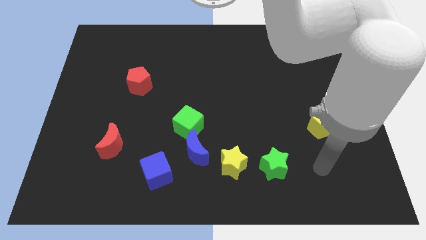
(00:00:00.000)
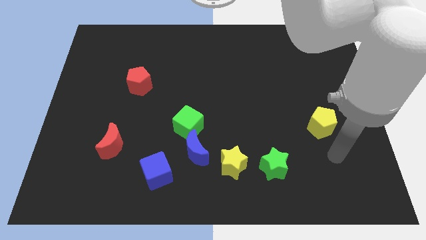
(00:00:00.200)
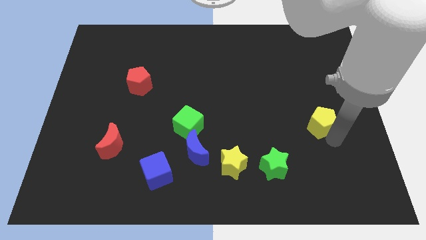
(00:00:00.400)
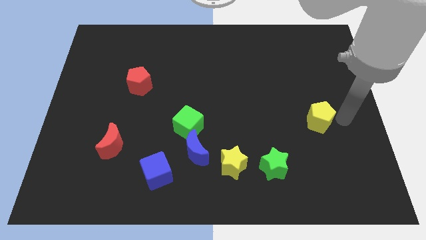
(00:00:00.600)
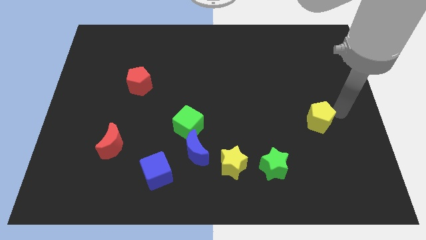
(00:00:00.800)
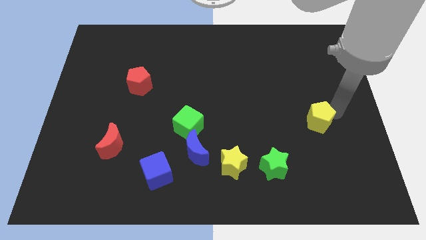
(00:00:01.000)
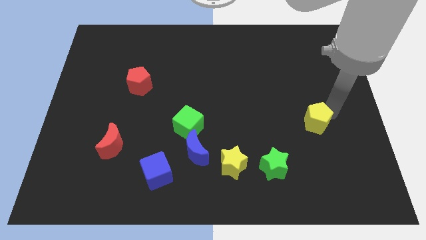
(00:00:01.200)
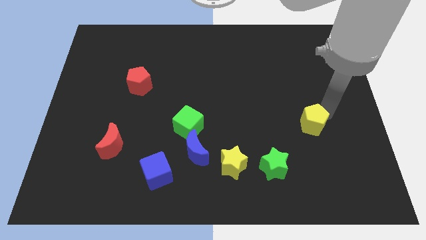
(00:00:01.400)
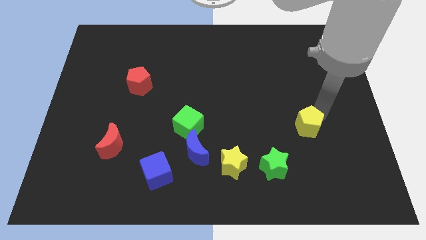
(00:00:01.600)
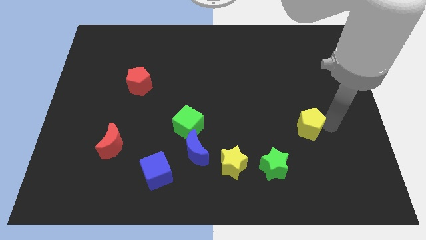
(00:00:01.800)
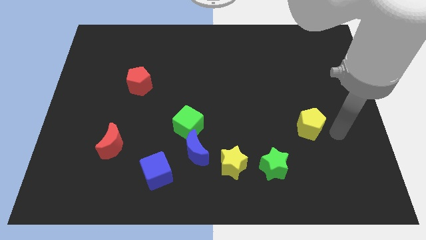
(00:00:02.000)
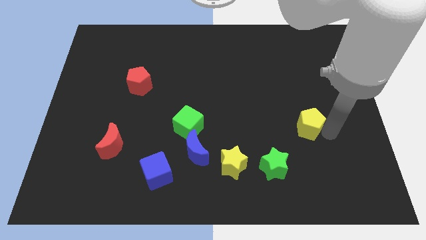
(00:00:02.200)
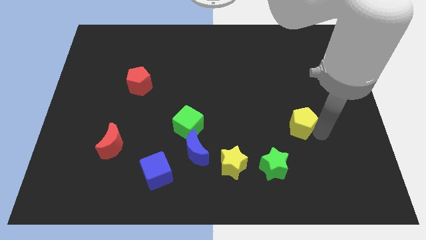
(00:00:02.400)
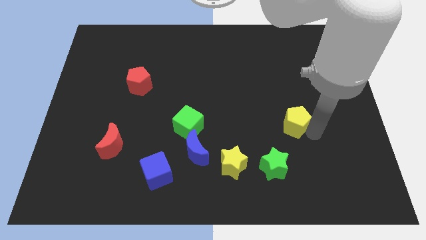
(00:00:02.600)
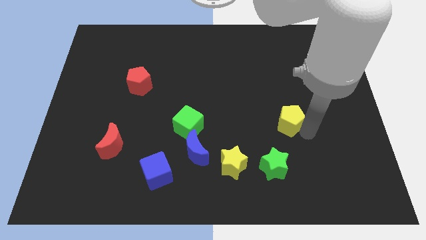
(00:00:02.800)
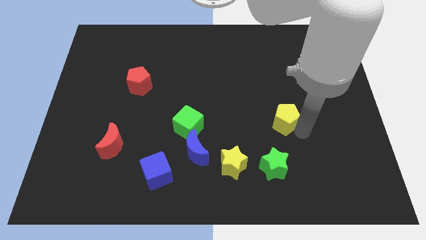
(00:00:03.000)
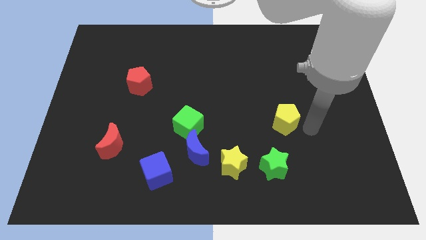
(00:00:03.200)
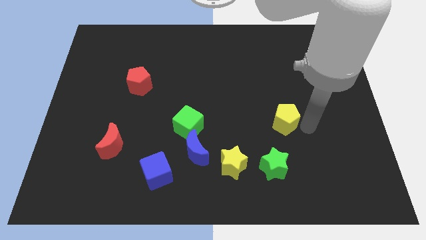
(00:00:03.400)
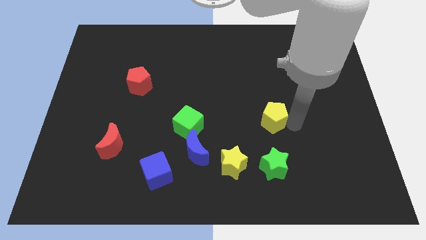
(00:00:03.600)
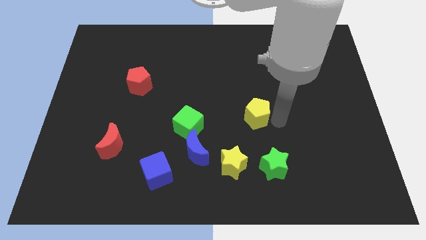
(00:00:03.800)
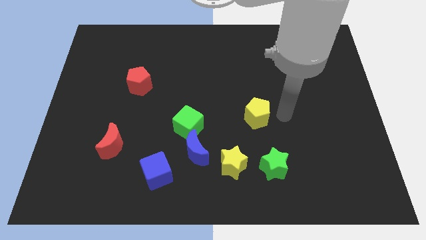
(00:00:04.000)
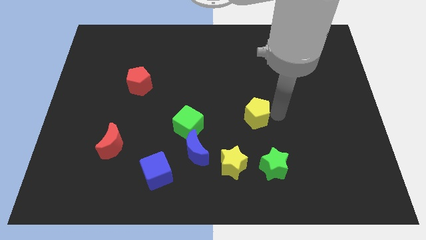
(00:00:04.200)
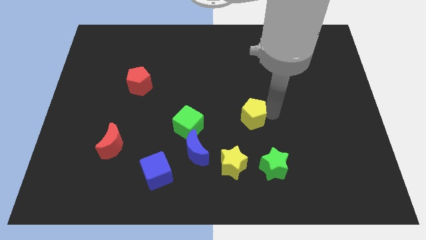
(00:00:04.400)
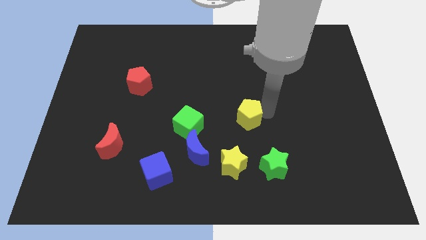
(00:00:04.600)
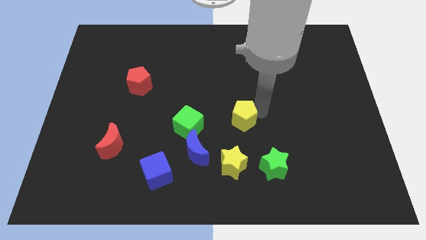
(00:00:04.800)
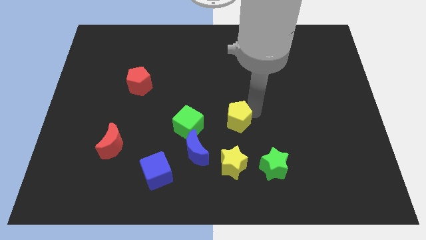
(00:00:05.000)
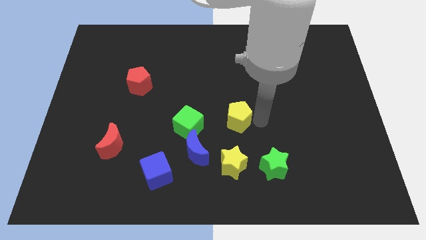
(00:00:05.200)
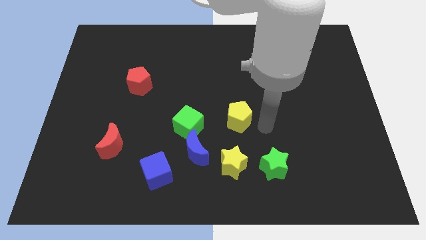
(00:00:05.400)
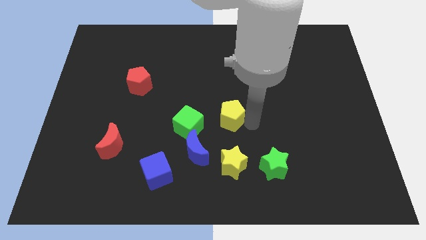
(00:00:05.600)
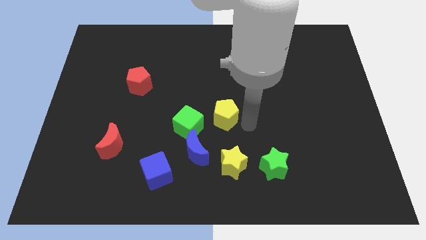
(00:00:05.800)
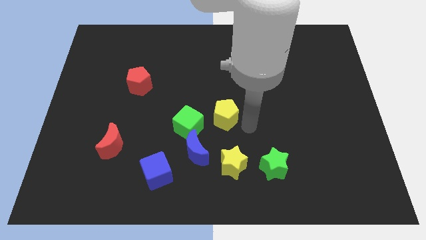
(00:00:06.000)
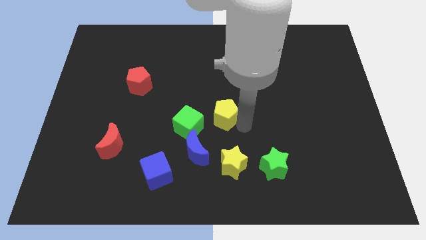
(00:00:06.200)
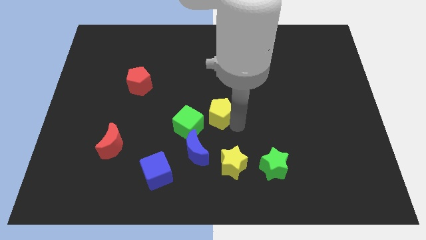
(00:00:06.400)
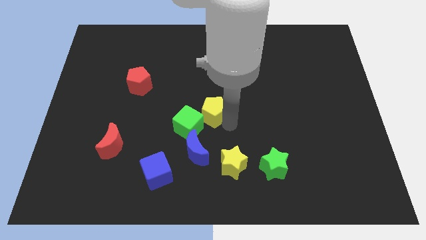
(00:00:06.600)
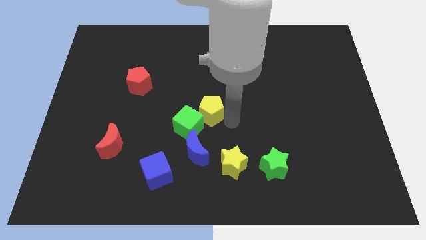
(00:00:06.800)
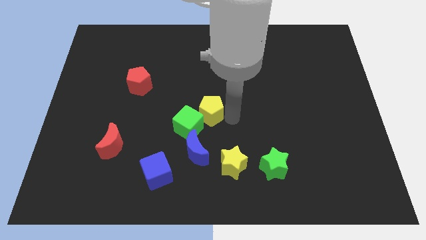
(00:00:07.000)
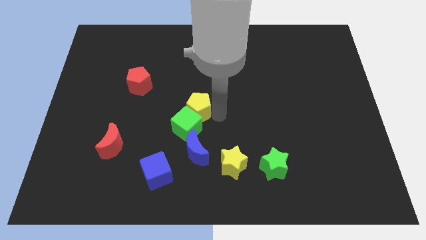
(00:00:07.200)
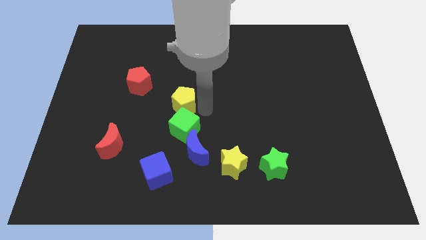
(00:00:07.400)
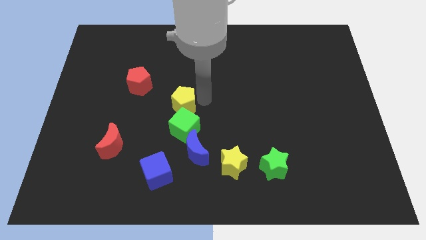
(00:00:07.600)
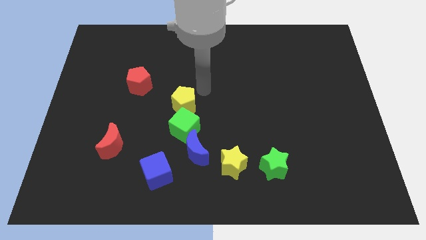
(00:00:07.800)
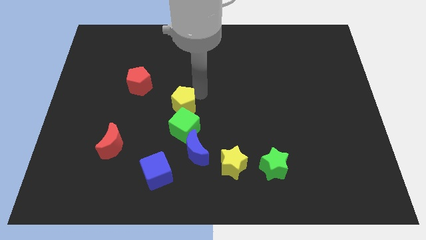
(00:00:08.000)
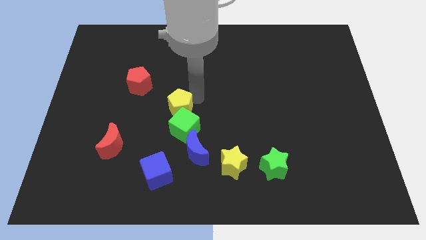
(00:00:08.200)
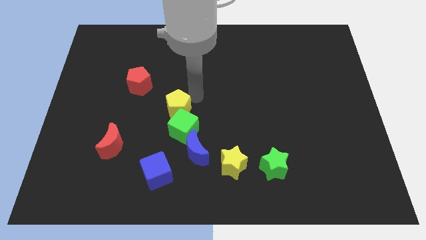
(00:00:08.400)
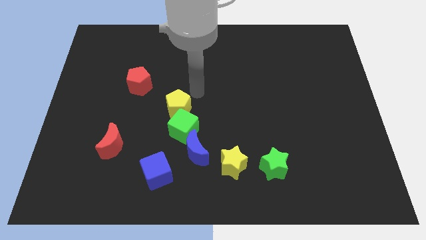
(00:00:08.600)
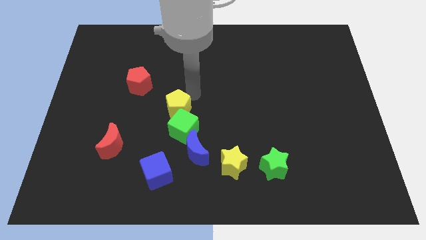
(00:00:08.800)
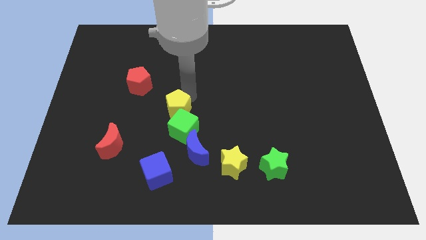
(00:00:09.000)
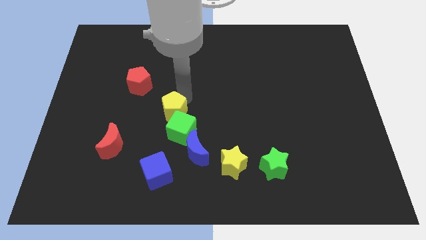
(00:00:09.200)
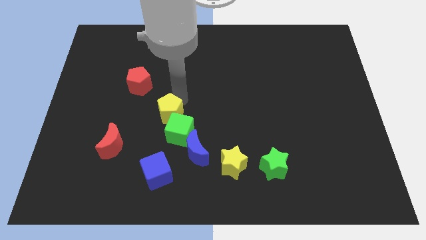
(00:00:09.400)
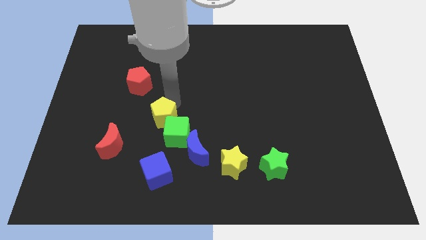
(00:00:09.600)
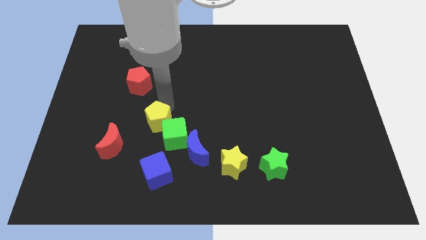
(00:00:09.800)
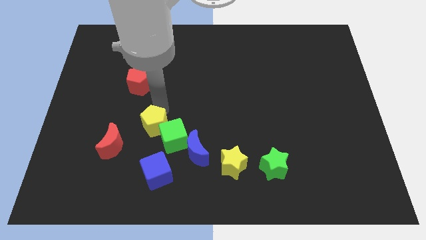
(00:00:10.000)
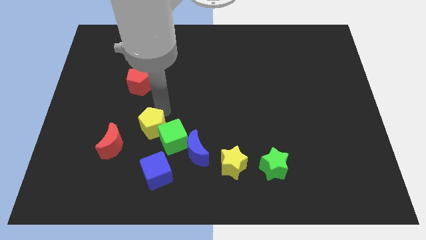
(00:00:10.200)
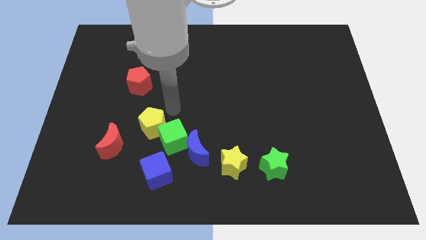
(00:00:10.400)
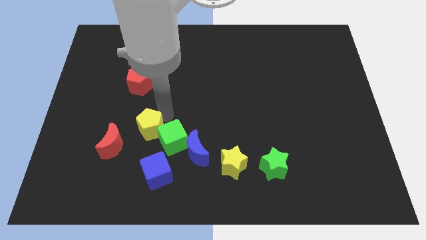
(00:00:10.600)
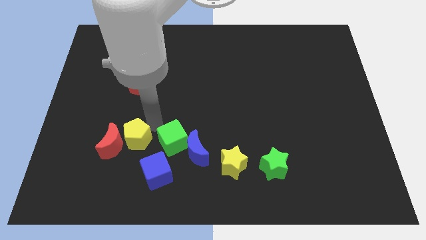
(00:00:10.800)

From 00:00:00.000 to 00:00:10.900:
push the yellow pentagon next to the red moon

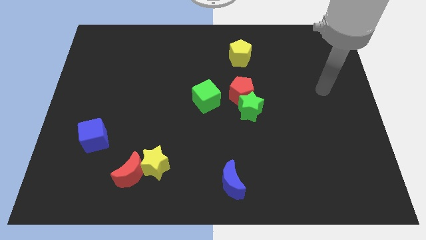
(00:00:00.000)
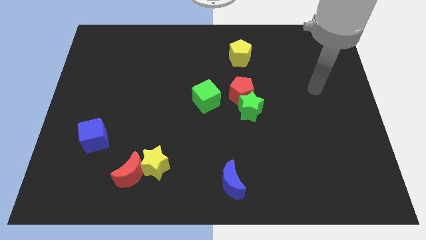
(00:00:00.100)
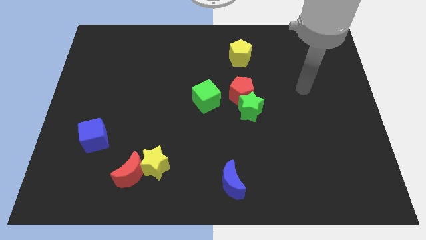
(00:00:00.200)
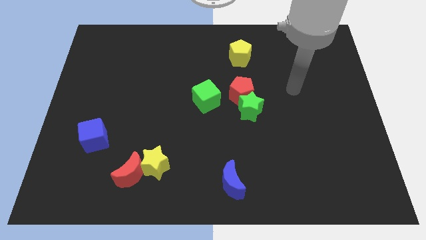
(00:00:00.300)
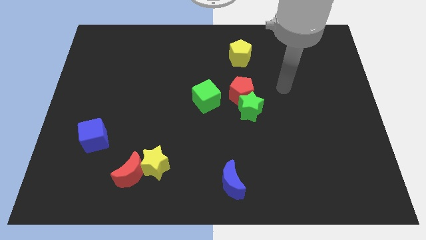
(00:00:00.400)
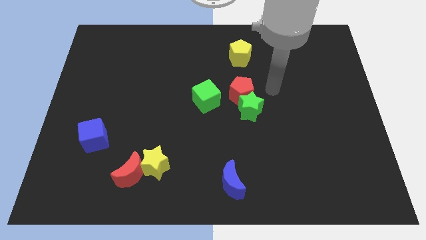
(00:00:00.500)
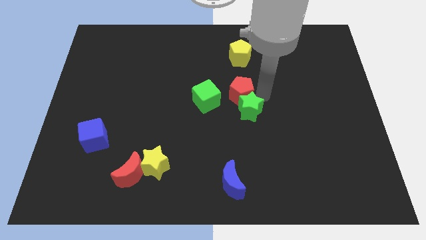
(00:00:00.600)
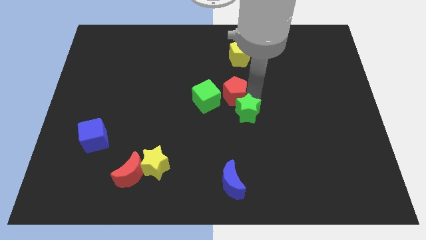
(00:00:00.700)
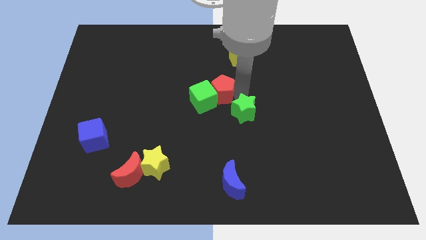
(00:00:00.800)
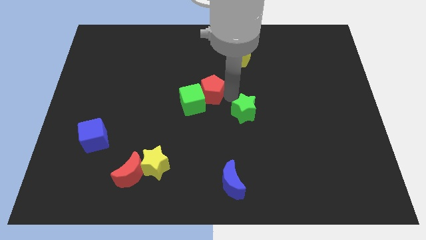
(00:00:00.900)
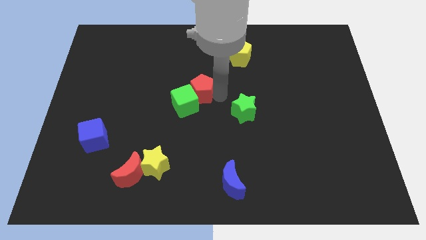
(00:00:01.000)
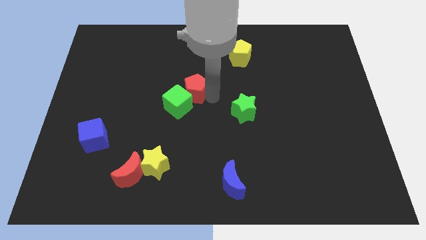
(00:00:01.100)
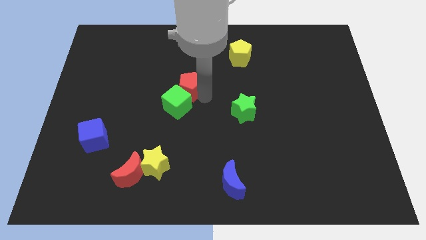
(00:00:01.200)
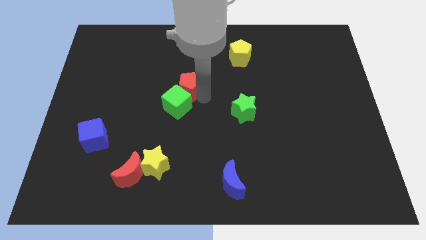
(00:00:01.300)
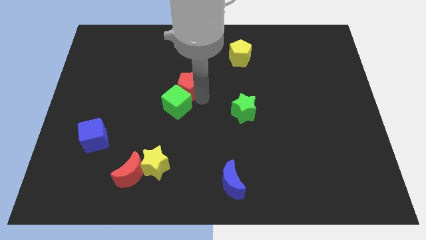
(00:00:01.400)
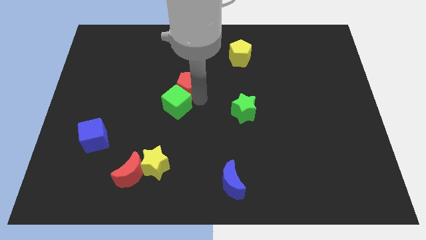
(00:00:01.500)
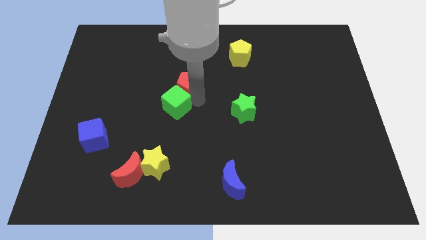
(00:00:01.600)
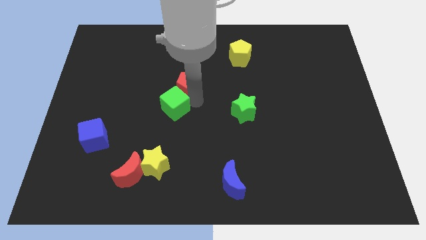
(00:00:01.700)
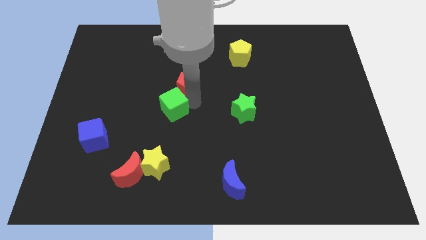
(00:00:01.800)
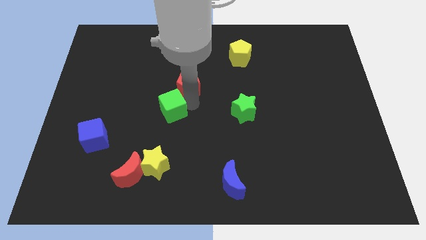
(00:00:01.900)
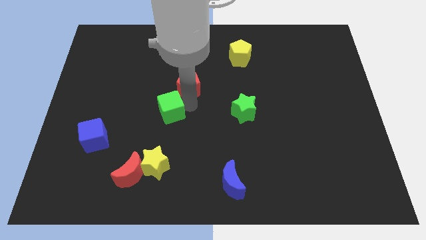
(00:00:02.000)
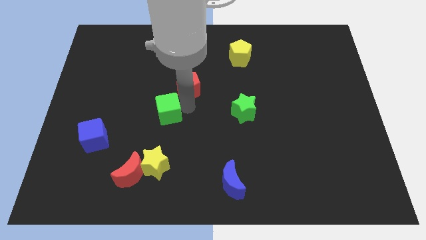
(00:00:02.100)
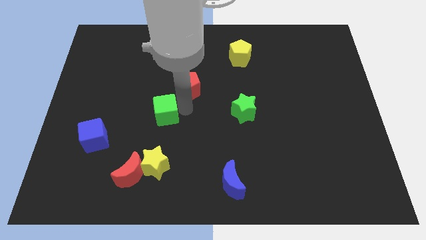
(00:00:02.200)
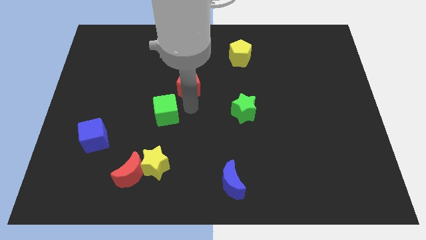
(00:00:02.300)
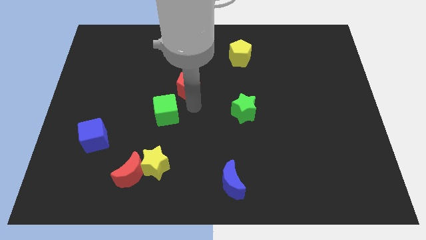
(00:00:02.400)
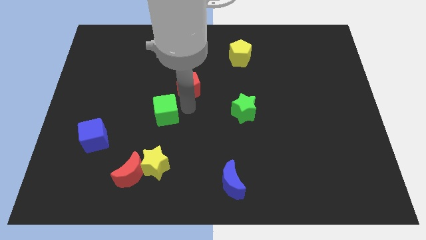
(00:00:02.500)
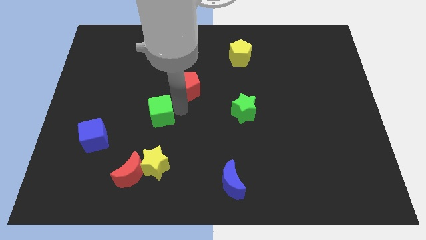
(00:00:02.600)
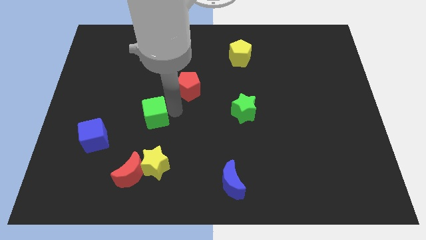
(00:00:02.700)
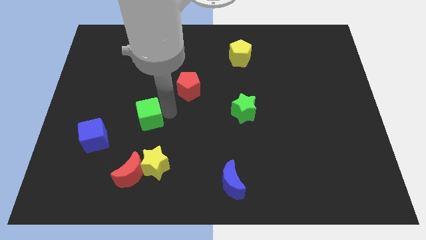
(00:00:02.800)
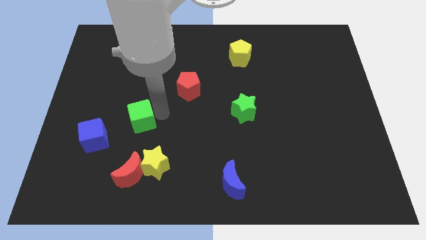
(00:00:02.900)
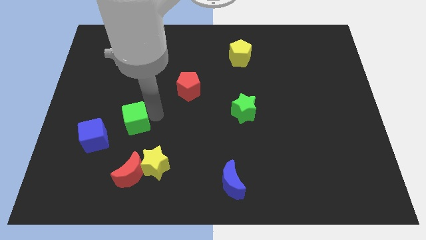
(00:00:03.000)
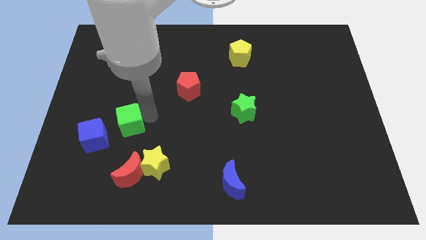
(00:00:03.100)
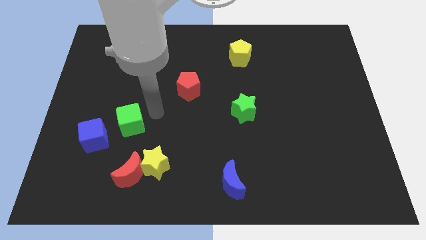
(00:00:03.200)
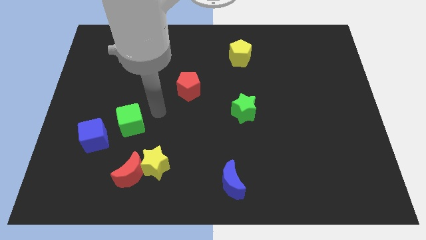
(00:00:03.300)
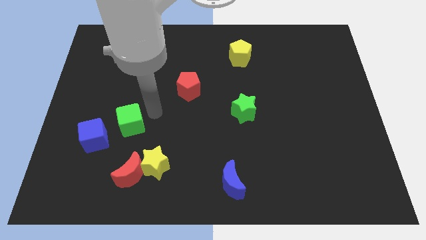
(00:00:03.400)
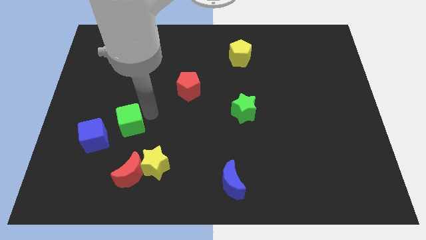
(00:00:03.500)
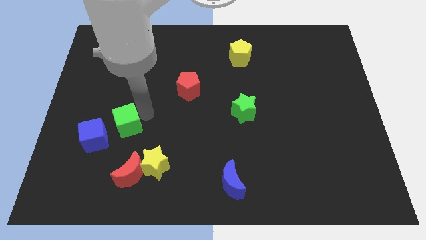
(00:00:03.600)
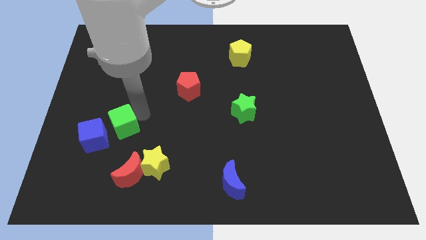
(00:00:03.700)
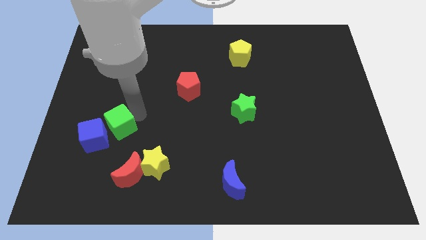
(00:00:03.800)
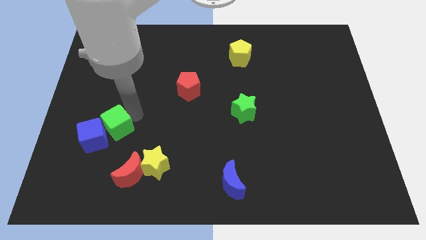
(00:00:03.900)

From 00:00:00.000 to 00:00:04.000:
move the green cube next to the blue cube
